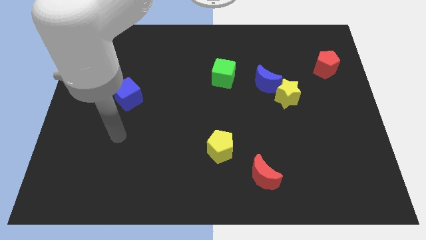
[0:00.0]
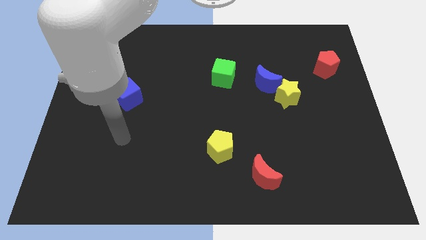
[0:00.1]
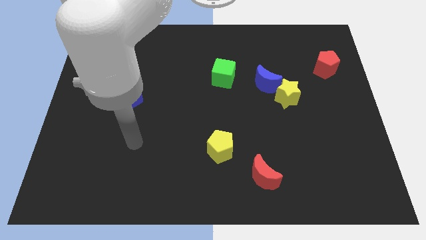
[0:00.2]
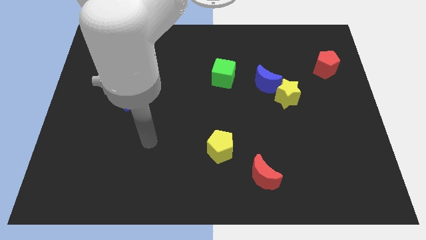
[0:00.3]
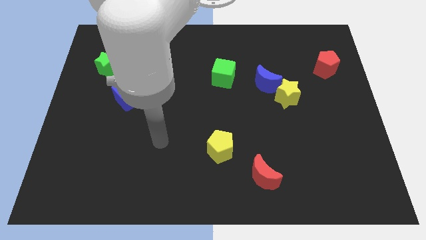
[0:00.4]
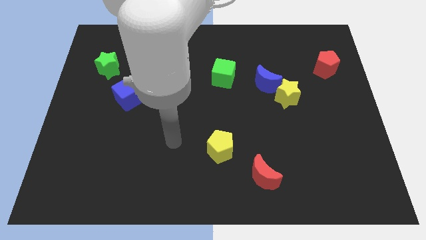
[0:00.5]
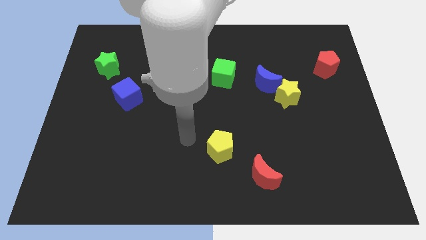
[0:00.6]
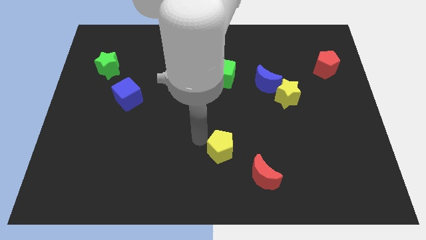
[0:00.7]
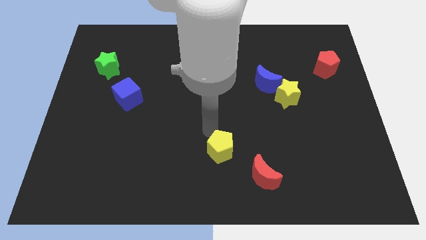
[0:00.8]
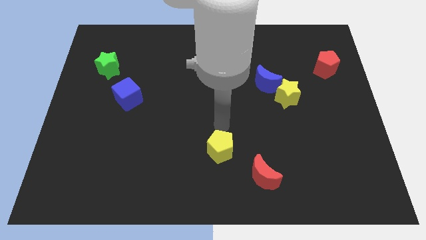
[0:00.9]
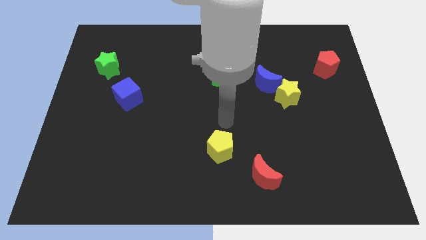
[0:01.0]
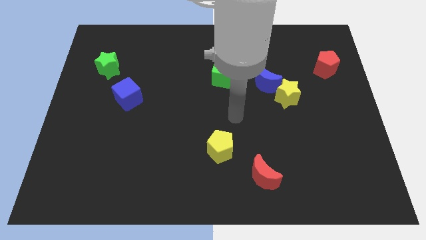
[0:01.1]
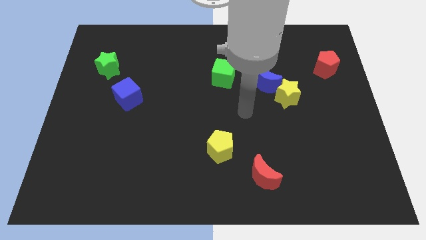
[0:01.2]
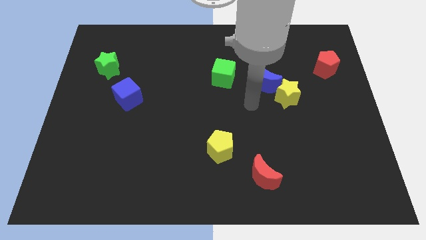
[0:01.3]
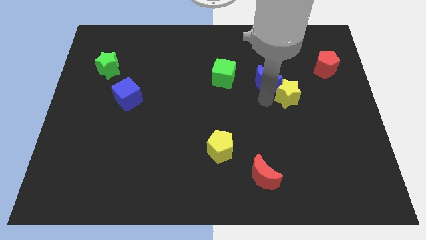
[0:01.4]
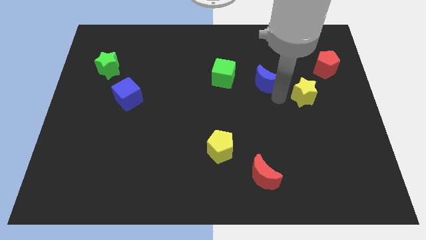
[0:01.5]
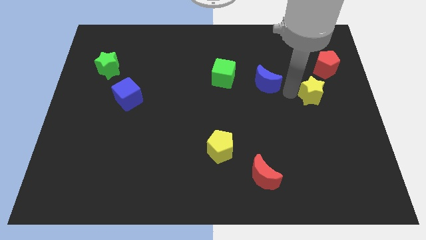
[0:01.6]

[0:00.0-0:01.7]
move the blue moon away from the yellow star

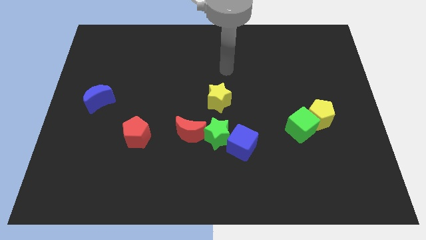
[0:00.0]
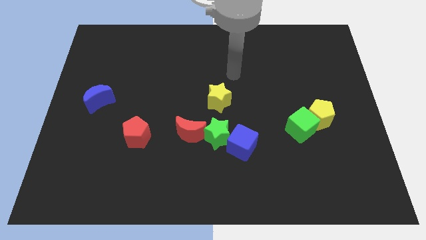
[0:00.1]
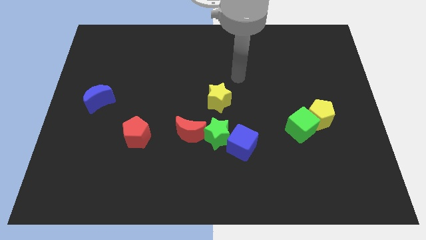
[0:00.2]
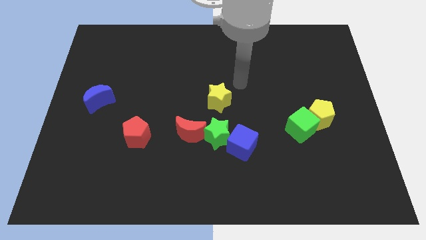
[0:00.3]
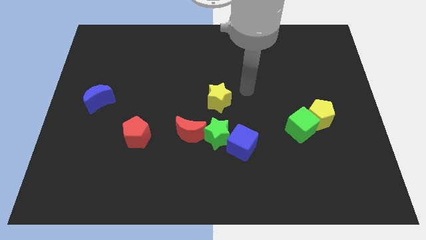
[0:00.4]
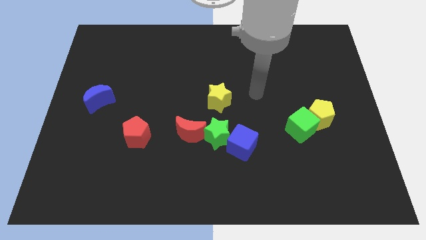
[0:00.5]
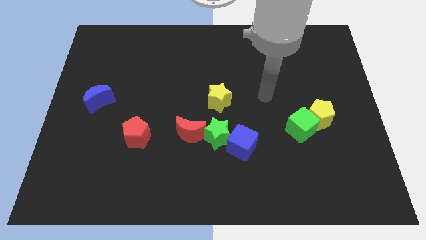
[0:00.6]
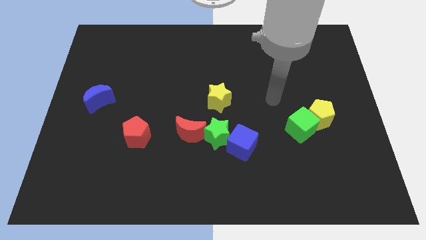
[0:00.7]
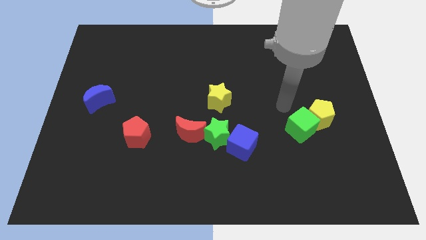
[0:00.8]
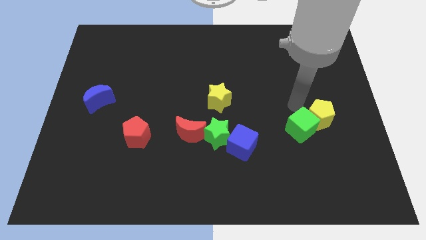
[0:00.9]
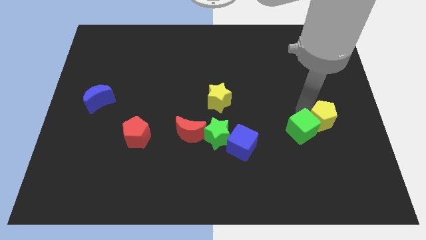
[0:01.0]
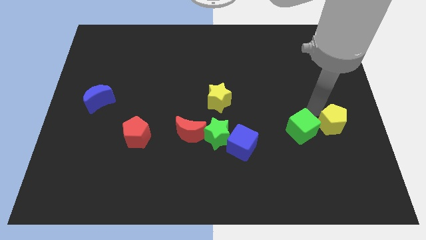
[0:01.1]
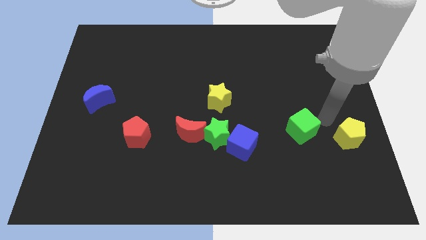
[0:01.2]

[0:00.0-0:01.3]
move the green cube away from the yellow pentagon

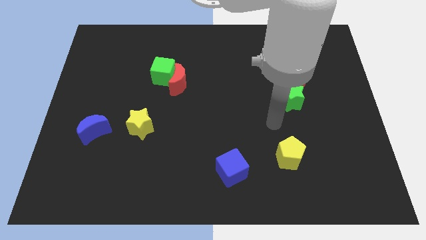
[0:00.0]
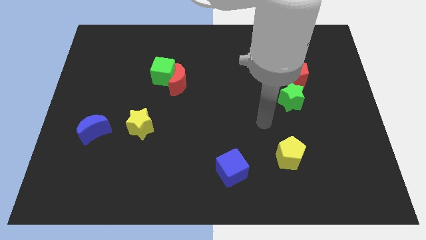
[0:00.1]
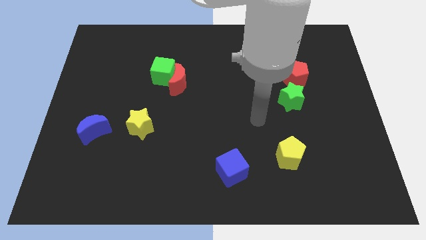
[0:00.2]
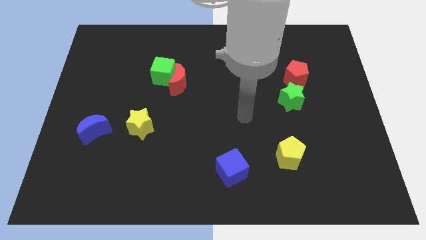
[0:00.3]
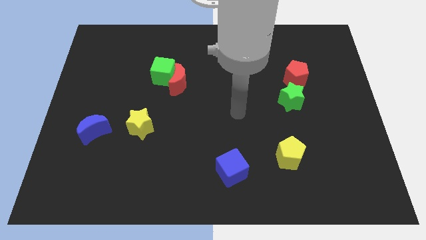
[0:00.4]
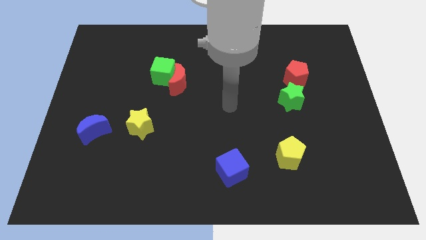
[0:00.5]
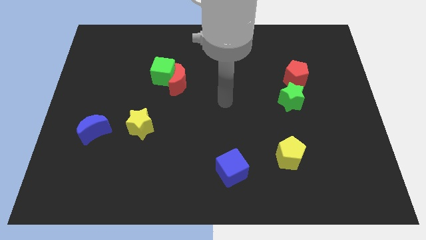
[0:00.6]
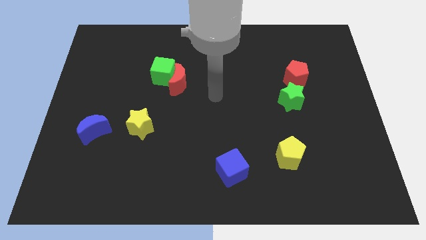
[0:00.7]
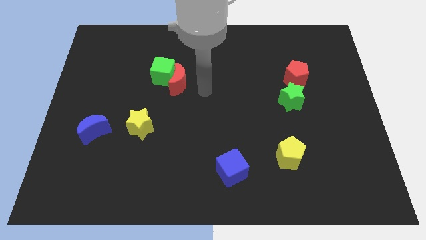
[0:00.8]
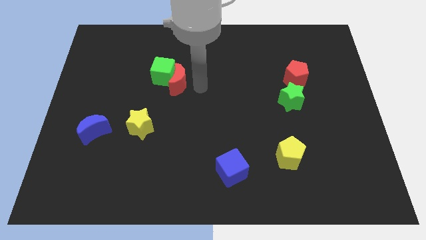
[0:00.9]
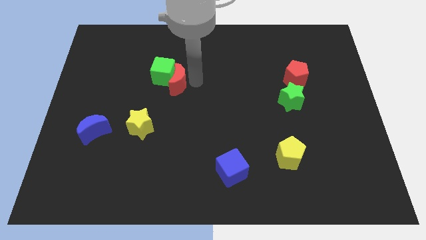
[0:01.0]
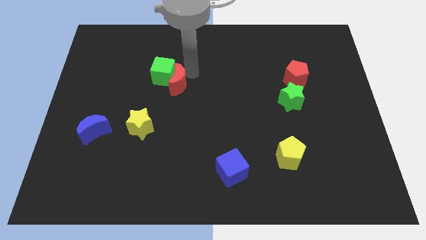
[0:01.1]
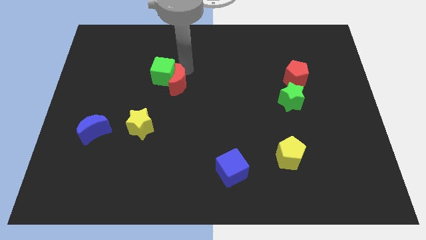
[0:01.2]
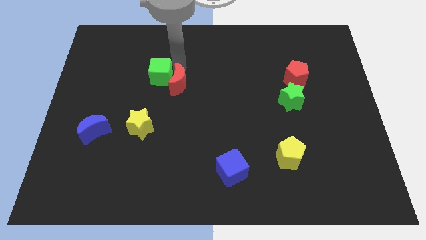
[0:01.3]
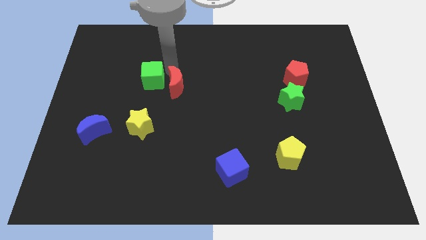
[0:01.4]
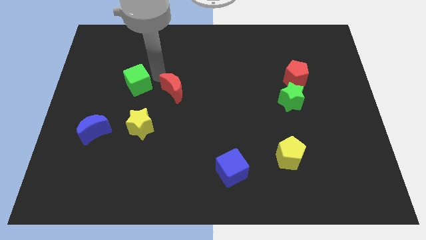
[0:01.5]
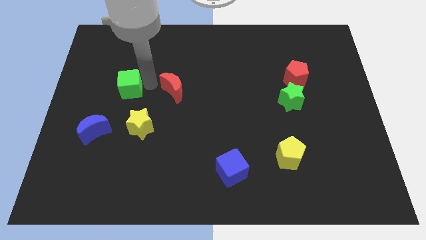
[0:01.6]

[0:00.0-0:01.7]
separate the red moon from the green cube

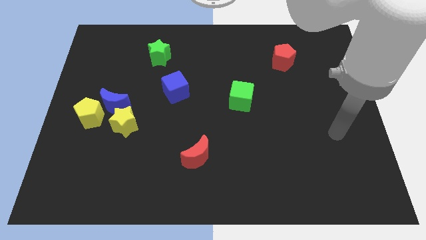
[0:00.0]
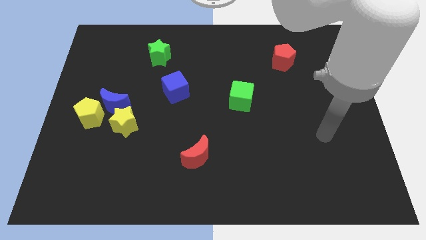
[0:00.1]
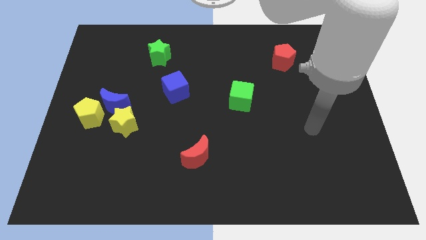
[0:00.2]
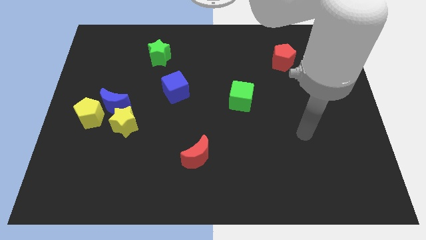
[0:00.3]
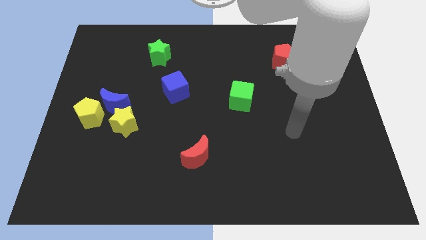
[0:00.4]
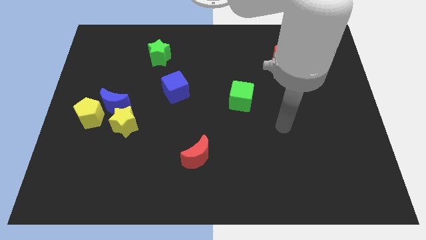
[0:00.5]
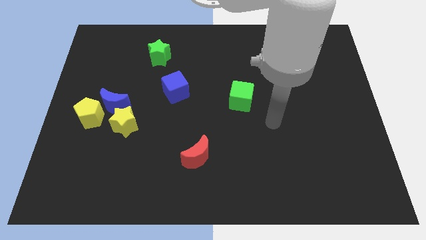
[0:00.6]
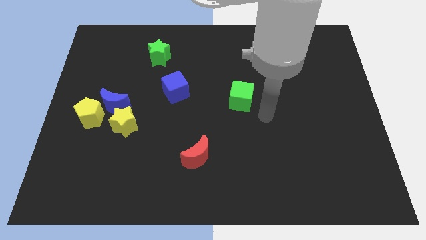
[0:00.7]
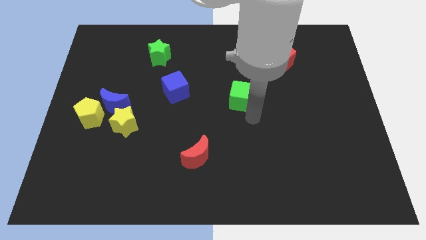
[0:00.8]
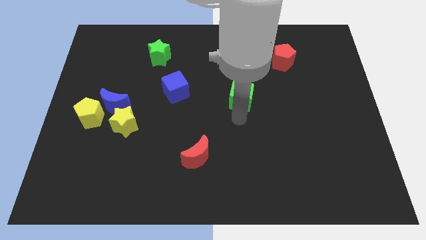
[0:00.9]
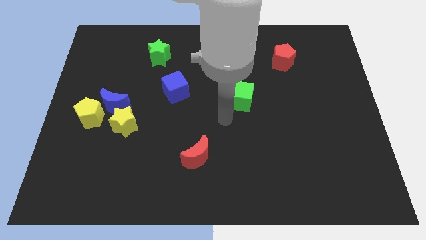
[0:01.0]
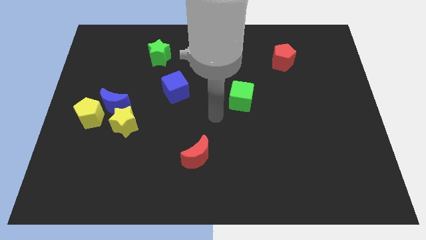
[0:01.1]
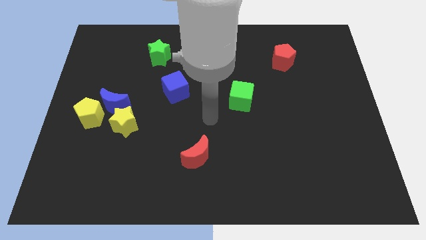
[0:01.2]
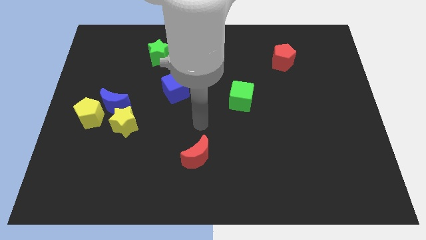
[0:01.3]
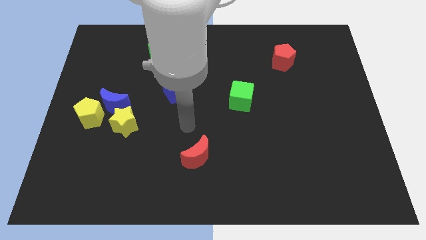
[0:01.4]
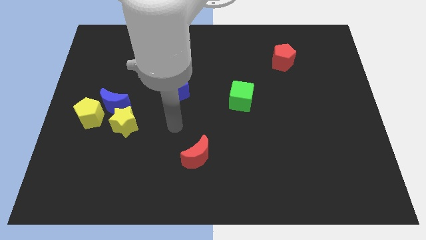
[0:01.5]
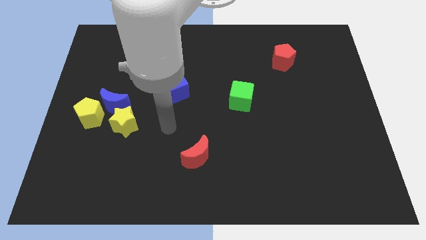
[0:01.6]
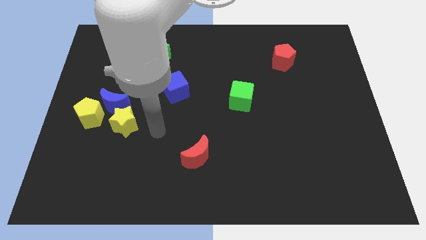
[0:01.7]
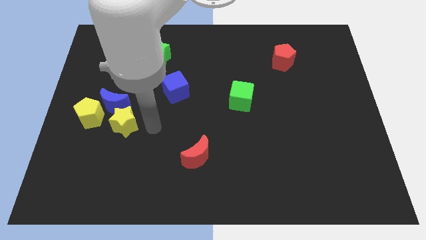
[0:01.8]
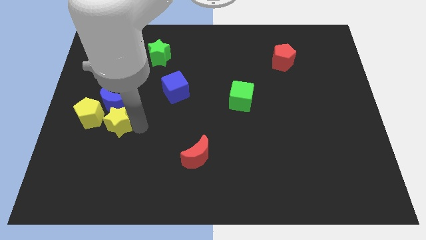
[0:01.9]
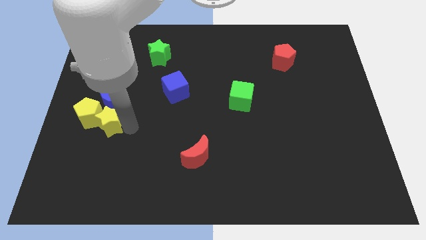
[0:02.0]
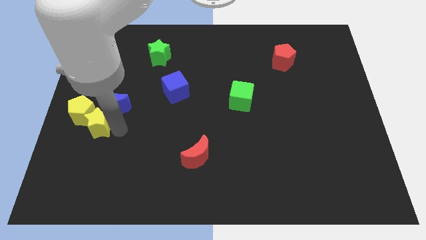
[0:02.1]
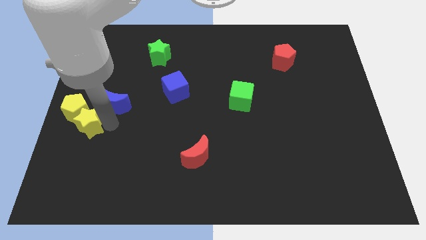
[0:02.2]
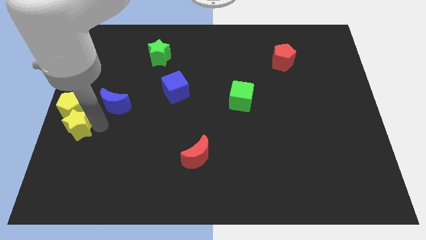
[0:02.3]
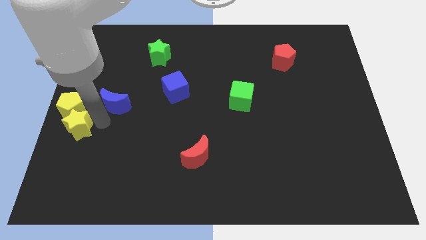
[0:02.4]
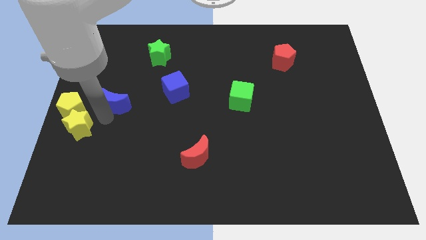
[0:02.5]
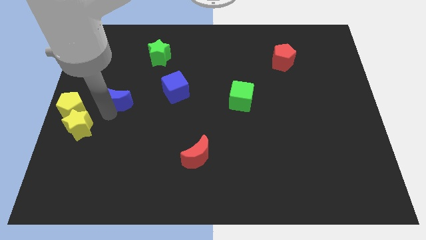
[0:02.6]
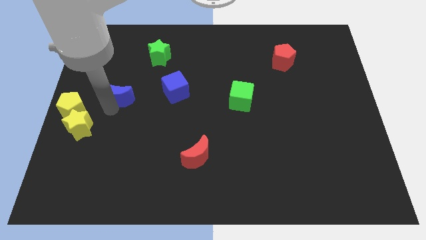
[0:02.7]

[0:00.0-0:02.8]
move the blue moon away from the yellow pentagon and yellow star

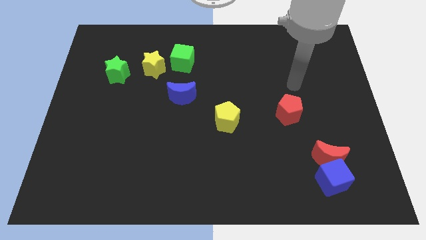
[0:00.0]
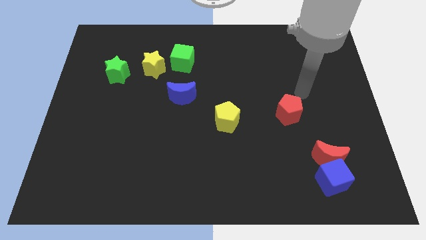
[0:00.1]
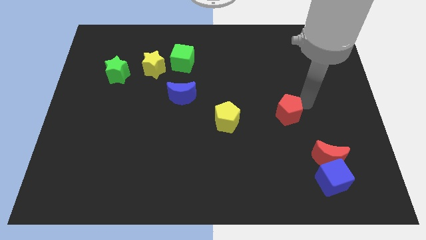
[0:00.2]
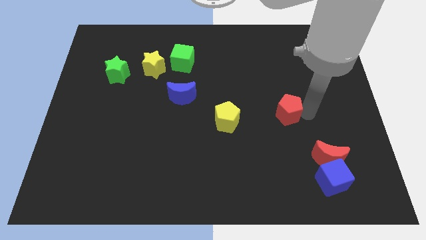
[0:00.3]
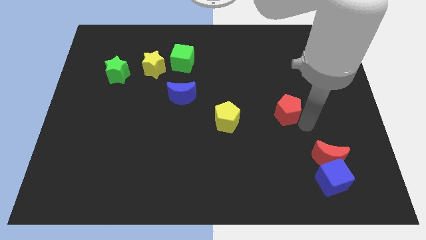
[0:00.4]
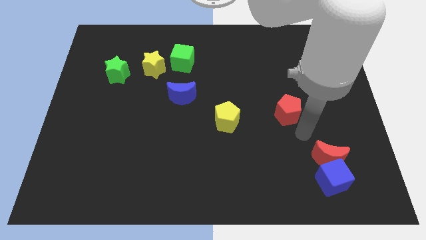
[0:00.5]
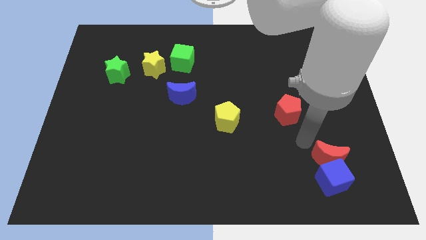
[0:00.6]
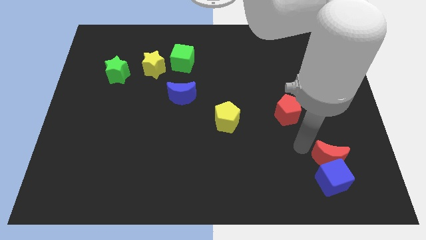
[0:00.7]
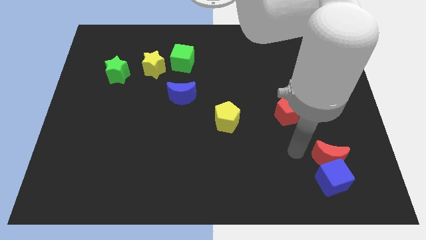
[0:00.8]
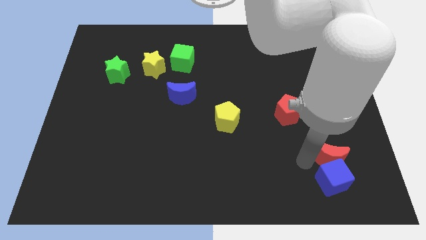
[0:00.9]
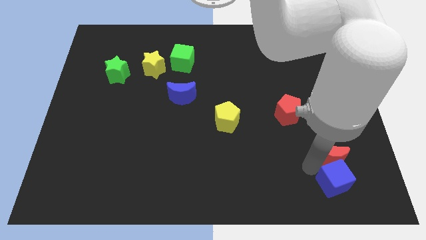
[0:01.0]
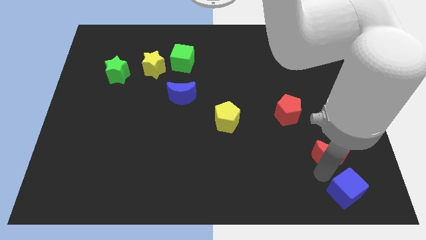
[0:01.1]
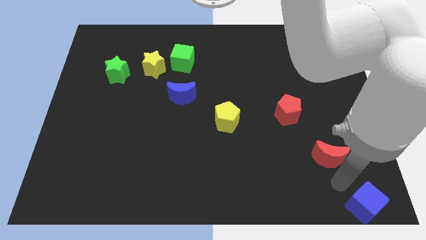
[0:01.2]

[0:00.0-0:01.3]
move the red moon away from the blue cube

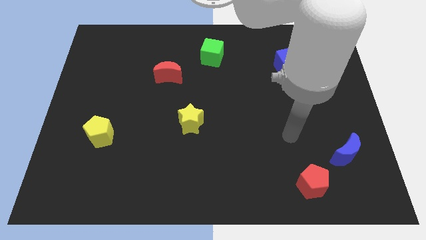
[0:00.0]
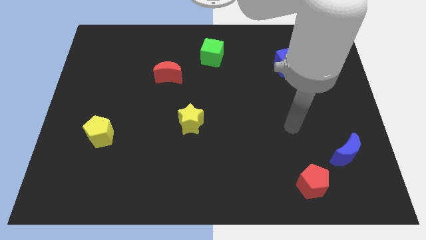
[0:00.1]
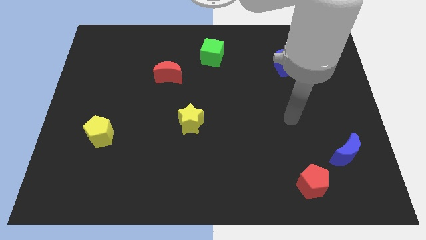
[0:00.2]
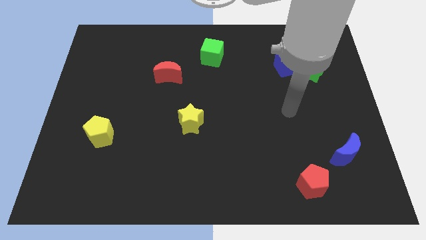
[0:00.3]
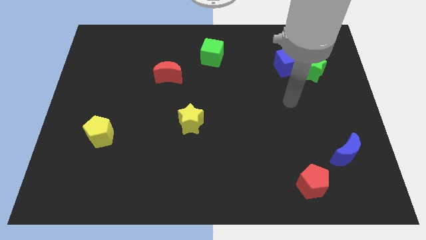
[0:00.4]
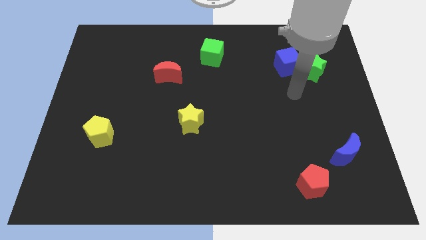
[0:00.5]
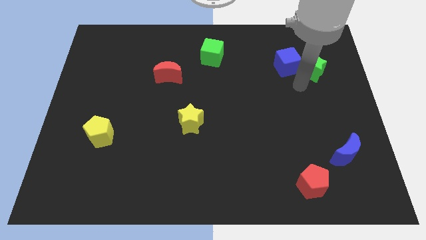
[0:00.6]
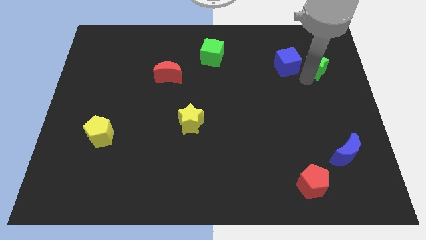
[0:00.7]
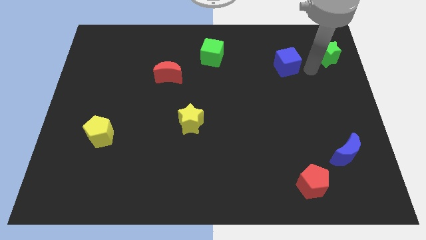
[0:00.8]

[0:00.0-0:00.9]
pull the blue cube apart from the green star
